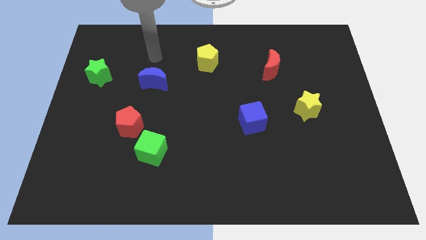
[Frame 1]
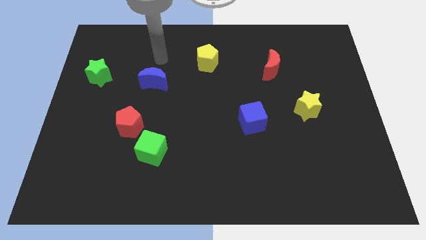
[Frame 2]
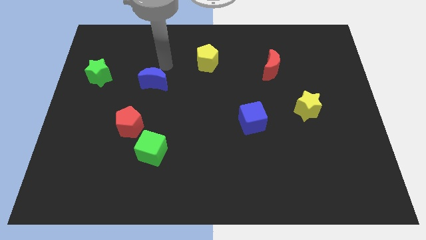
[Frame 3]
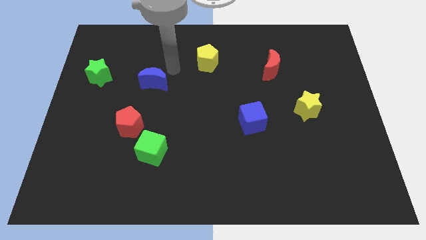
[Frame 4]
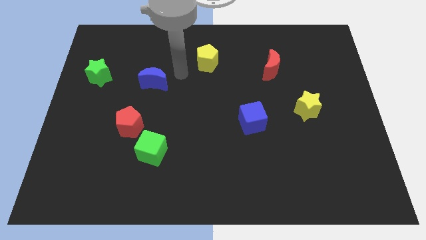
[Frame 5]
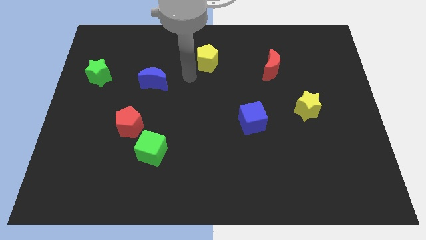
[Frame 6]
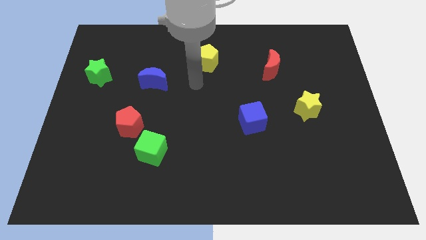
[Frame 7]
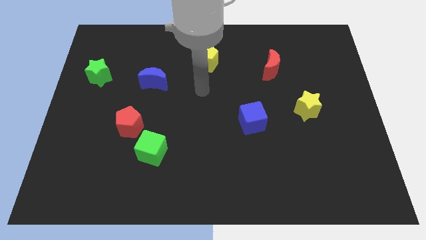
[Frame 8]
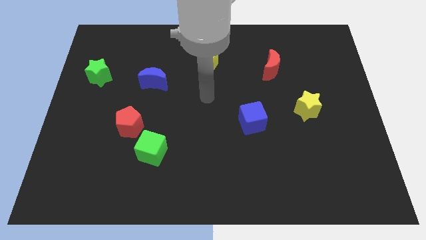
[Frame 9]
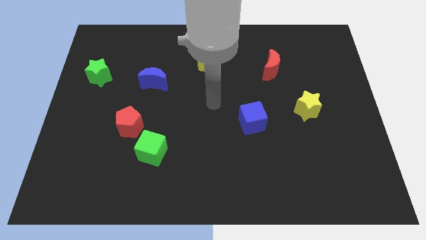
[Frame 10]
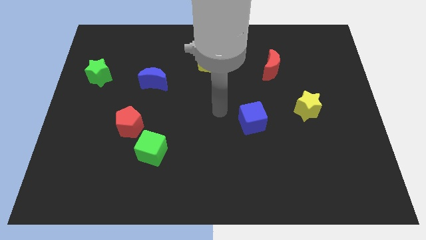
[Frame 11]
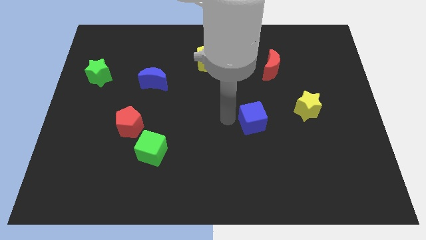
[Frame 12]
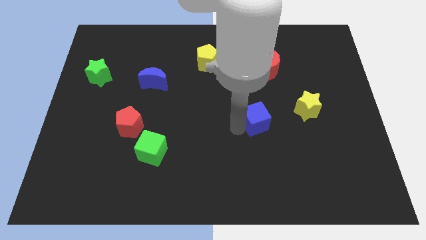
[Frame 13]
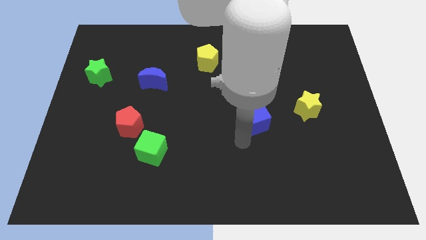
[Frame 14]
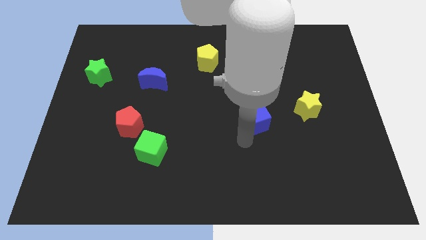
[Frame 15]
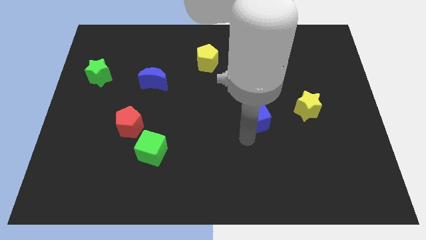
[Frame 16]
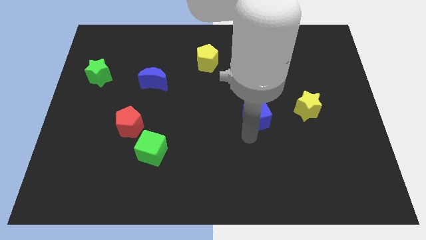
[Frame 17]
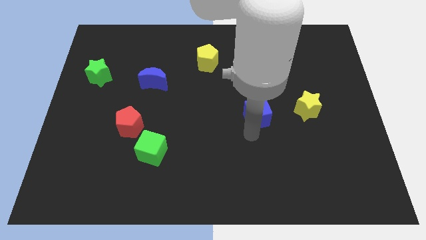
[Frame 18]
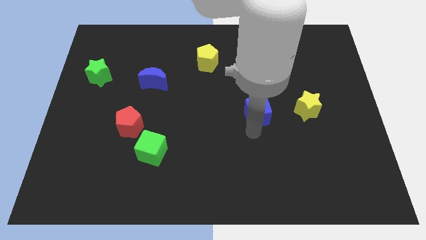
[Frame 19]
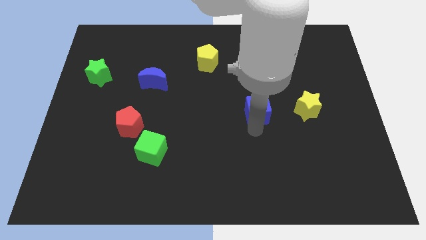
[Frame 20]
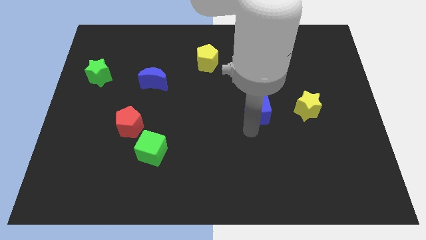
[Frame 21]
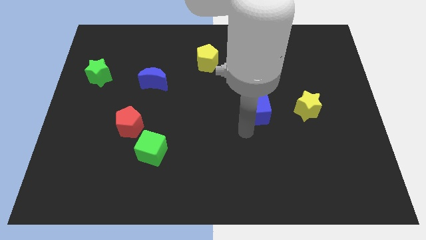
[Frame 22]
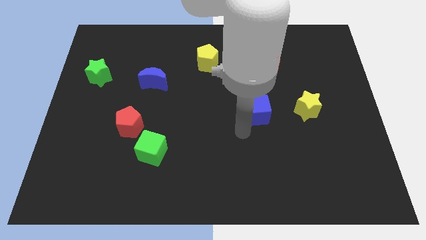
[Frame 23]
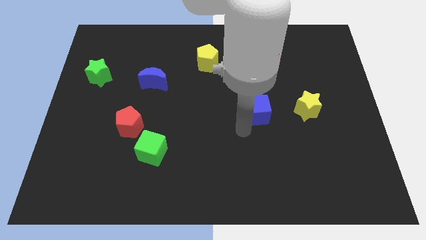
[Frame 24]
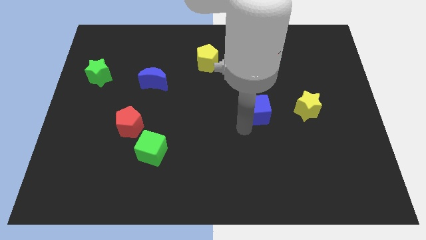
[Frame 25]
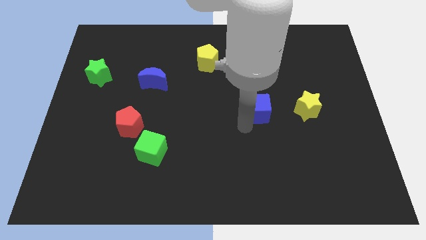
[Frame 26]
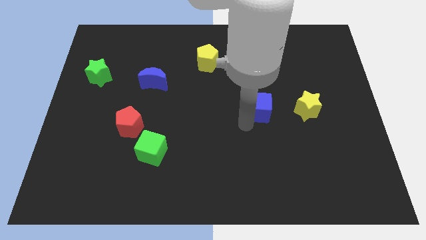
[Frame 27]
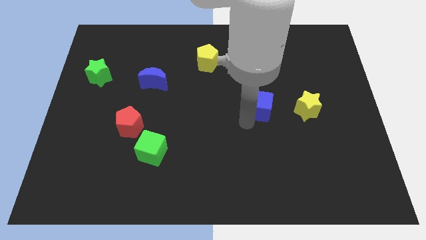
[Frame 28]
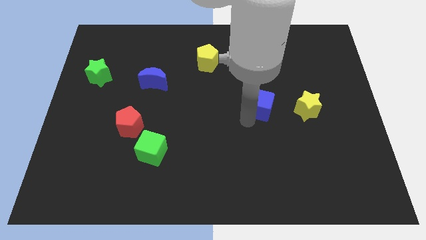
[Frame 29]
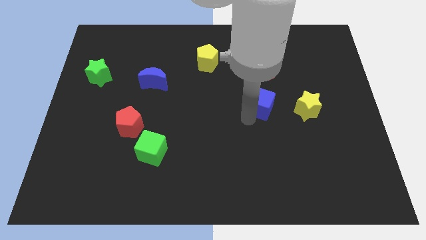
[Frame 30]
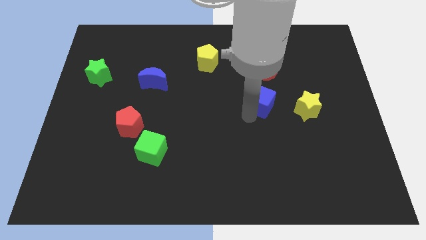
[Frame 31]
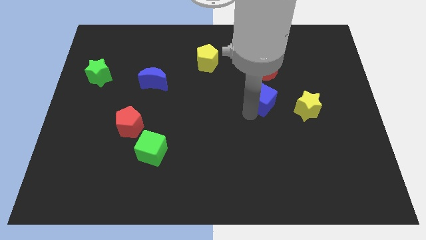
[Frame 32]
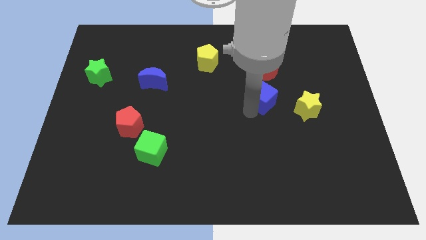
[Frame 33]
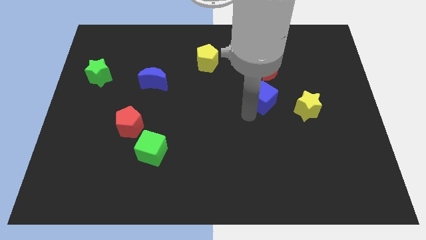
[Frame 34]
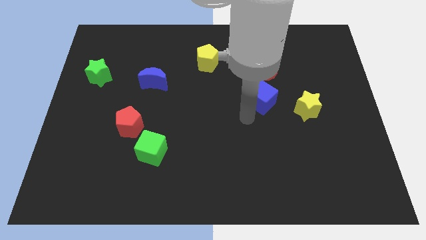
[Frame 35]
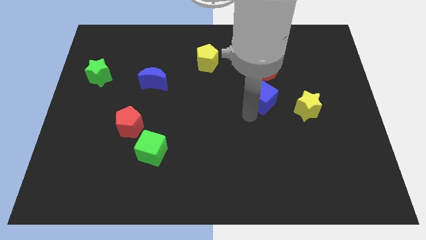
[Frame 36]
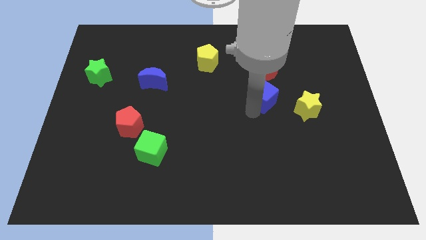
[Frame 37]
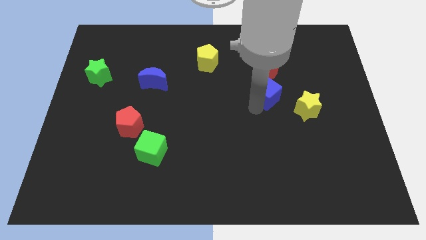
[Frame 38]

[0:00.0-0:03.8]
slide the blue cube up and to the right somewhat

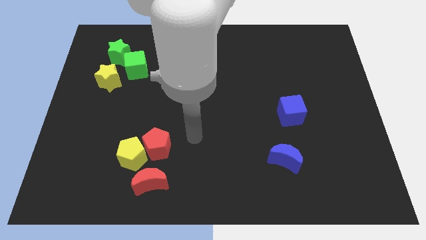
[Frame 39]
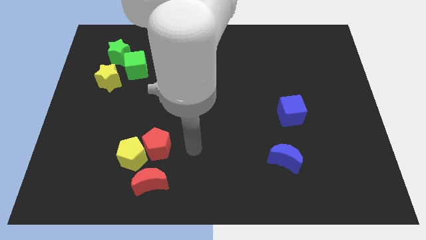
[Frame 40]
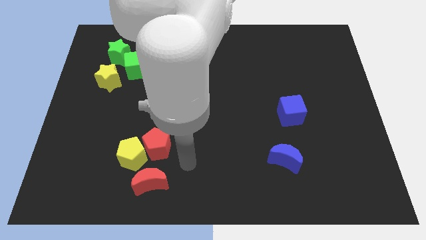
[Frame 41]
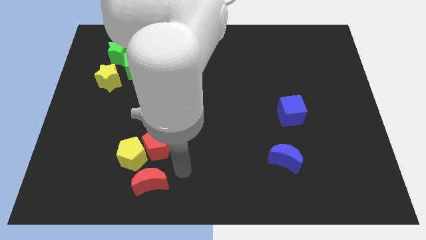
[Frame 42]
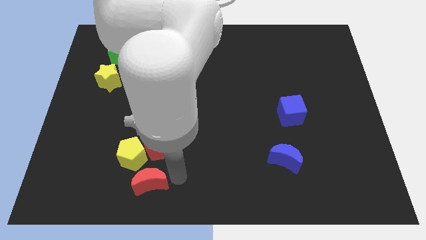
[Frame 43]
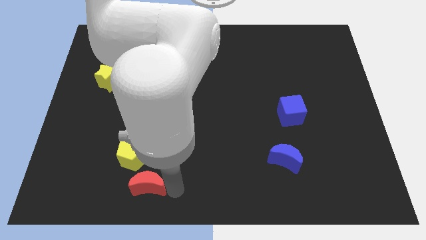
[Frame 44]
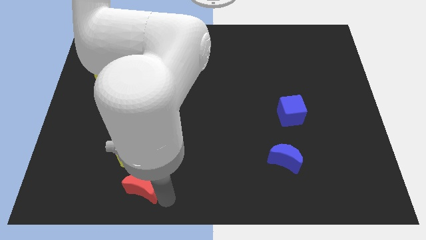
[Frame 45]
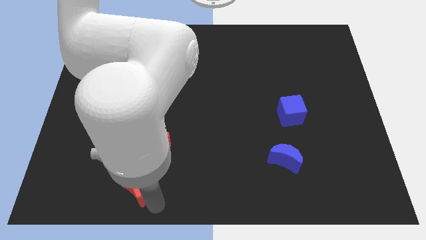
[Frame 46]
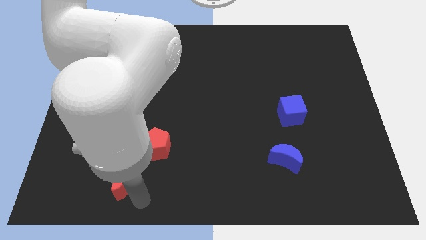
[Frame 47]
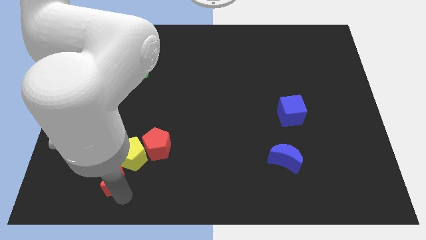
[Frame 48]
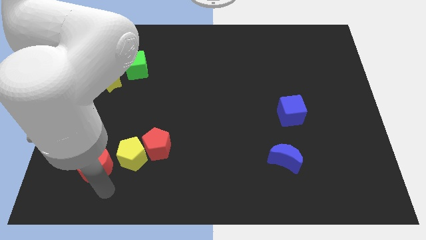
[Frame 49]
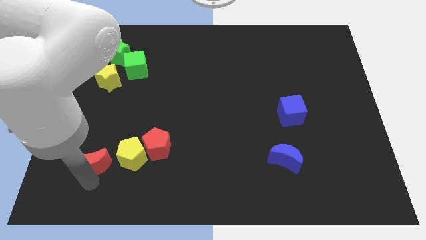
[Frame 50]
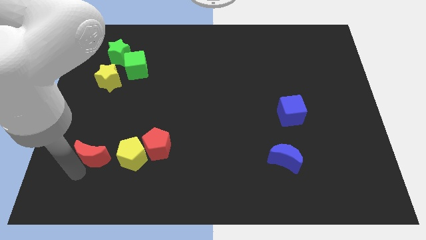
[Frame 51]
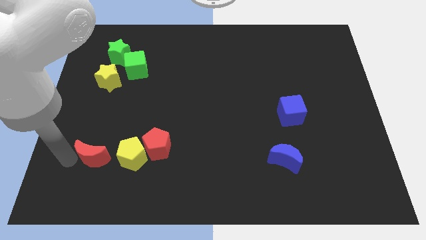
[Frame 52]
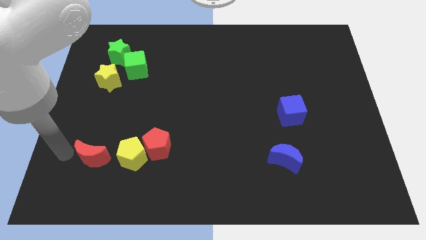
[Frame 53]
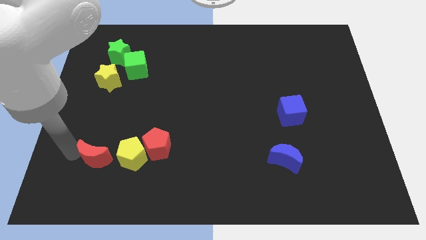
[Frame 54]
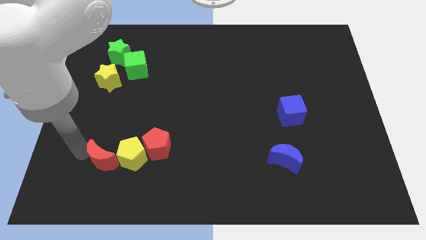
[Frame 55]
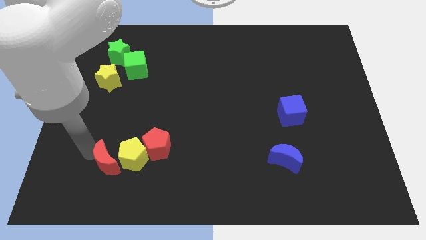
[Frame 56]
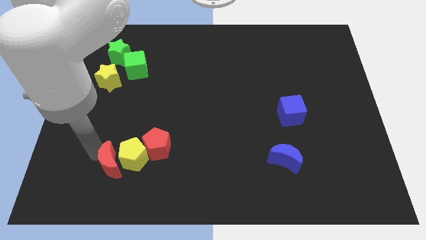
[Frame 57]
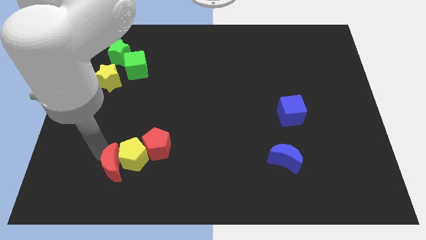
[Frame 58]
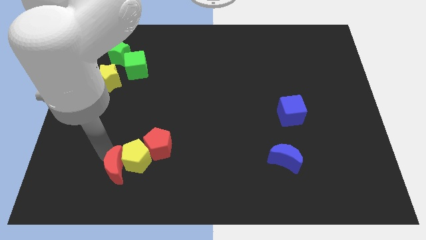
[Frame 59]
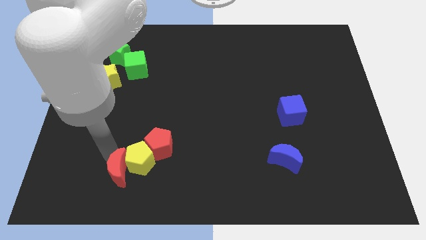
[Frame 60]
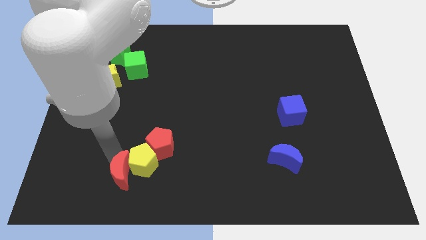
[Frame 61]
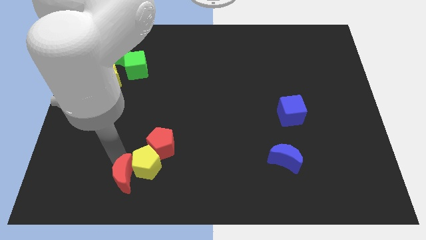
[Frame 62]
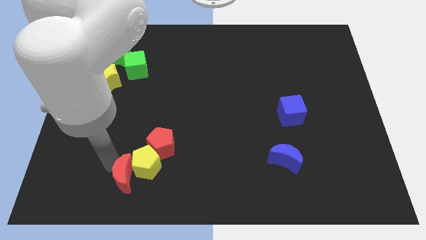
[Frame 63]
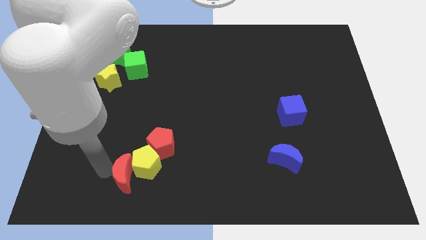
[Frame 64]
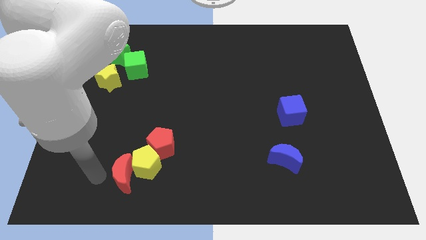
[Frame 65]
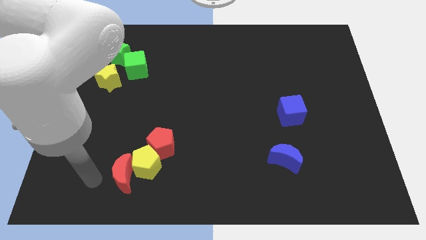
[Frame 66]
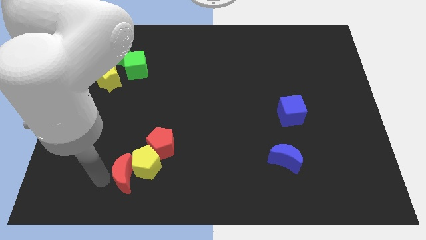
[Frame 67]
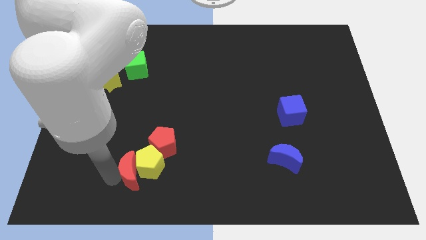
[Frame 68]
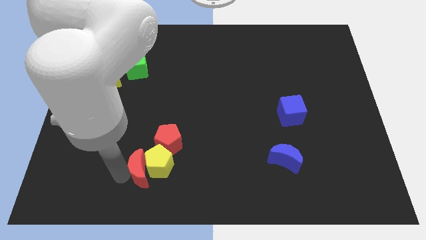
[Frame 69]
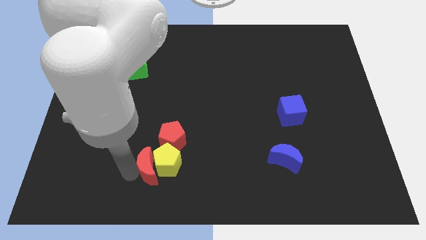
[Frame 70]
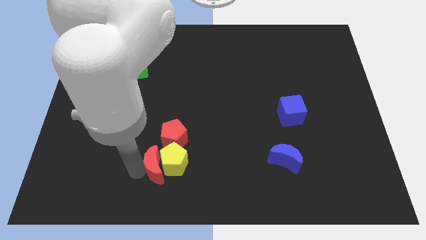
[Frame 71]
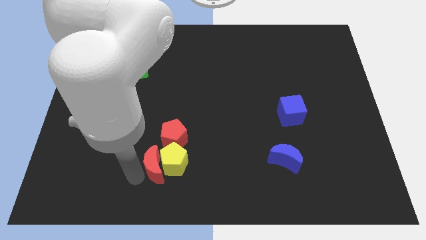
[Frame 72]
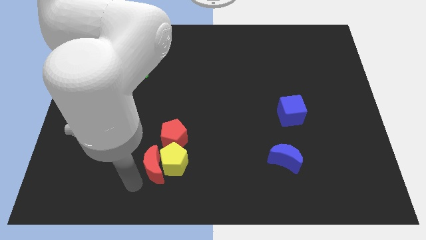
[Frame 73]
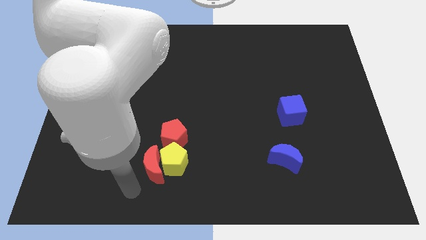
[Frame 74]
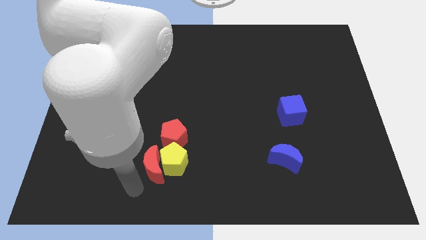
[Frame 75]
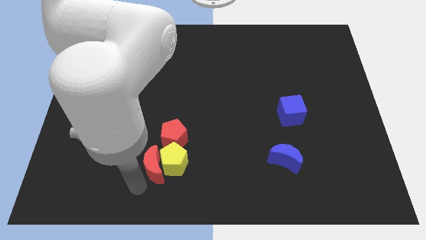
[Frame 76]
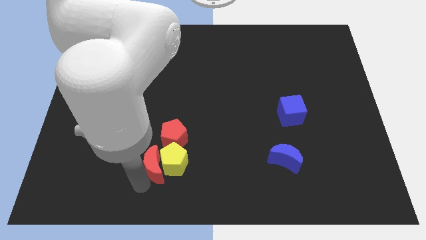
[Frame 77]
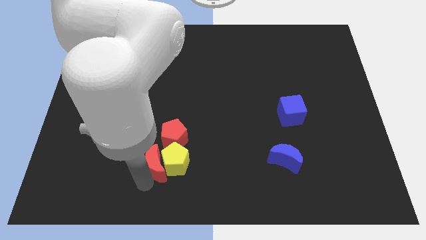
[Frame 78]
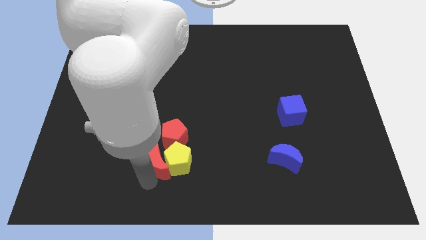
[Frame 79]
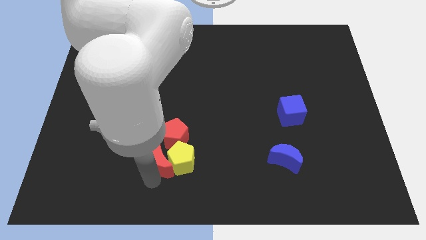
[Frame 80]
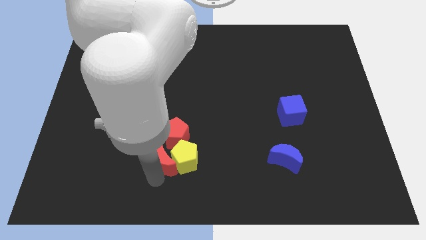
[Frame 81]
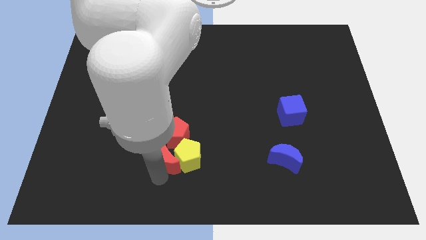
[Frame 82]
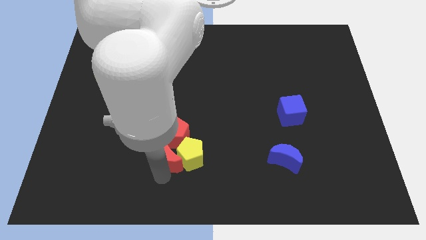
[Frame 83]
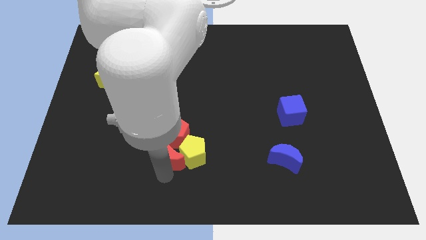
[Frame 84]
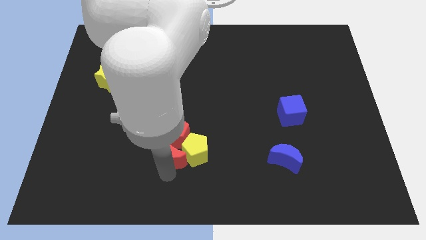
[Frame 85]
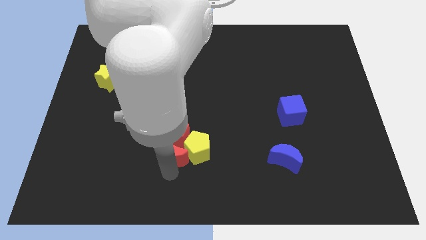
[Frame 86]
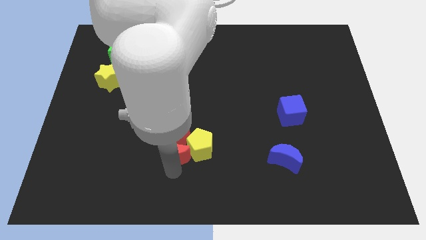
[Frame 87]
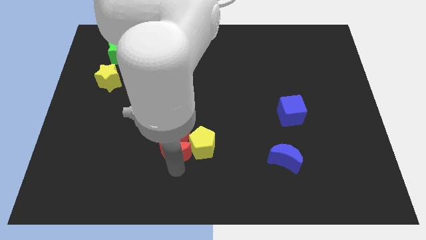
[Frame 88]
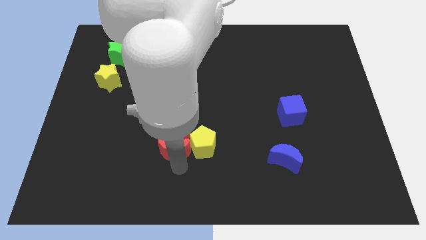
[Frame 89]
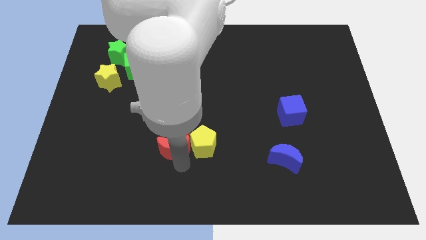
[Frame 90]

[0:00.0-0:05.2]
push the red moon upwards slightly
